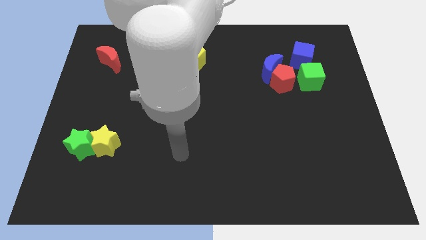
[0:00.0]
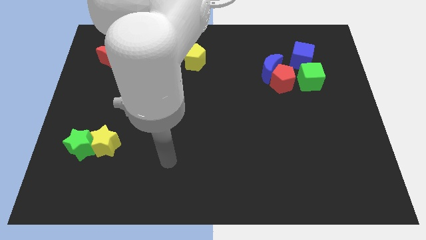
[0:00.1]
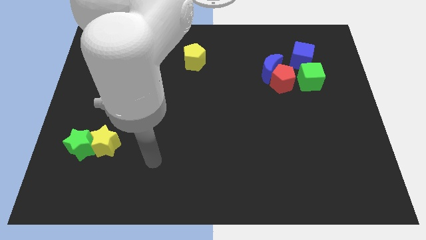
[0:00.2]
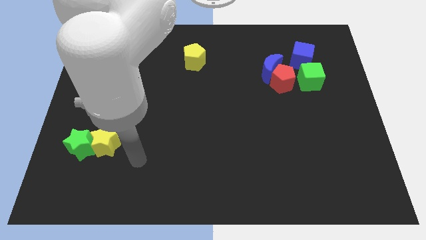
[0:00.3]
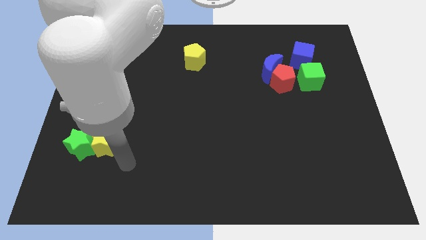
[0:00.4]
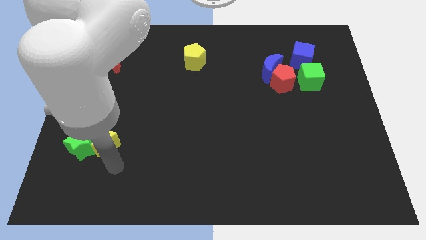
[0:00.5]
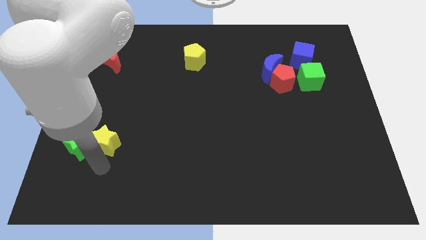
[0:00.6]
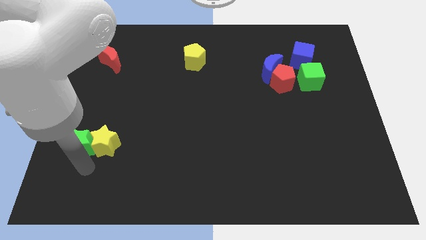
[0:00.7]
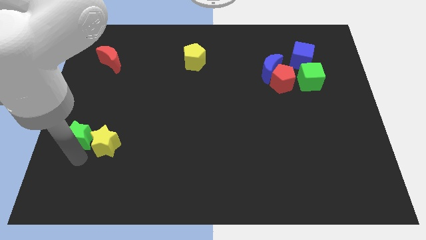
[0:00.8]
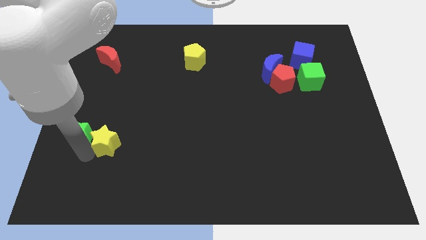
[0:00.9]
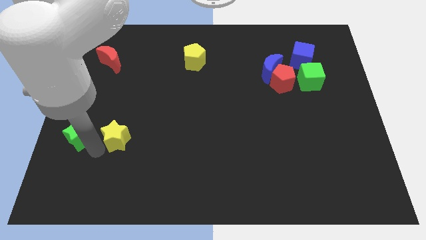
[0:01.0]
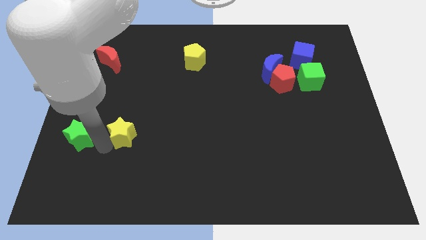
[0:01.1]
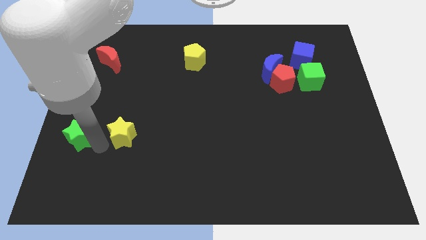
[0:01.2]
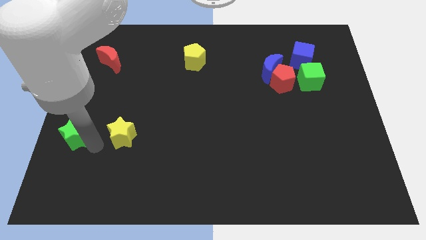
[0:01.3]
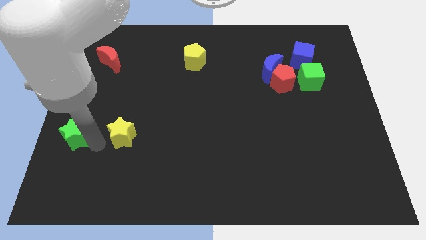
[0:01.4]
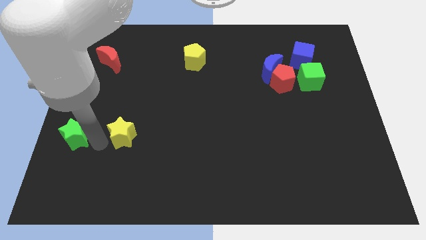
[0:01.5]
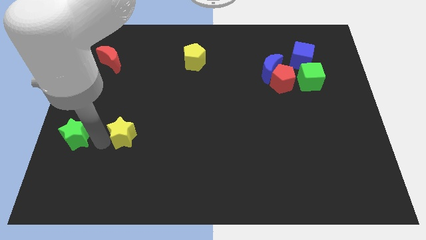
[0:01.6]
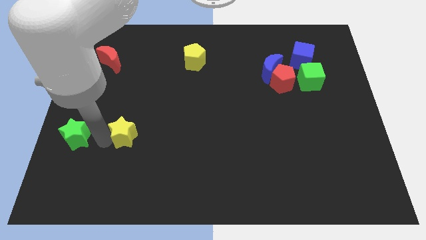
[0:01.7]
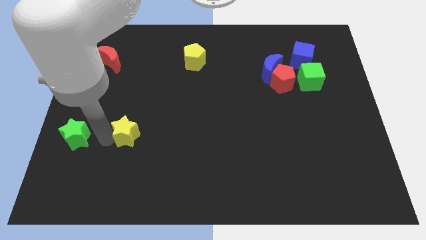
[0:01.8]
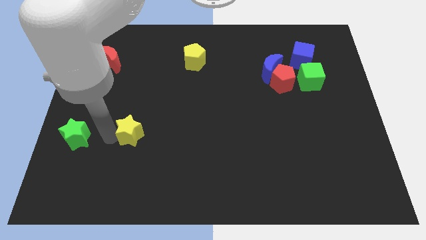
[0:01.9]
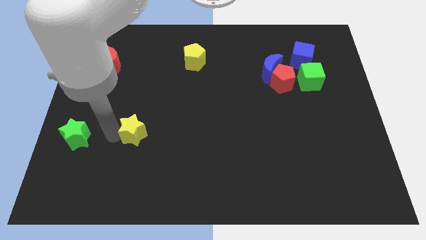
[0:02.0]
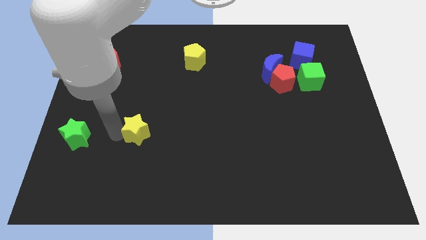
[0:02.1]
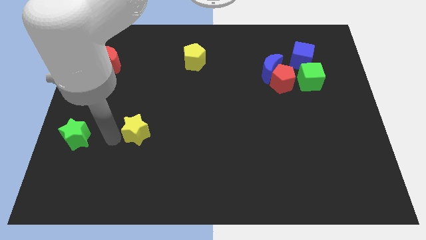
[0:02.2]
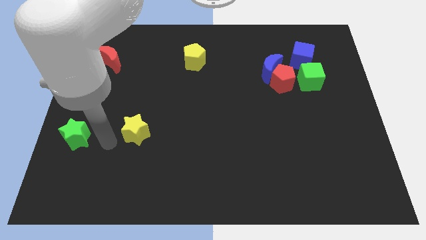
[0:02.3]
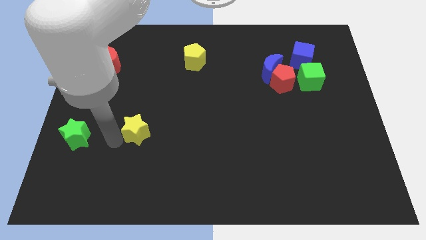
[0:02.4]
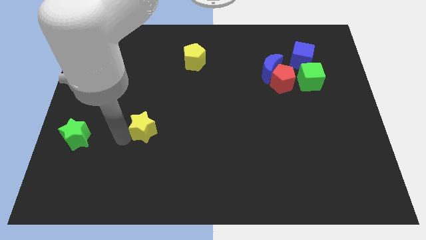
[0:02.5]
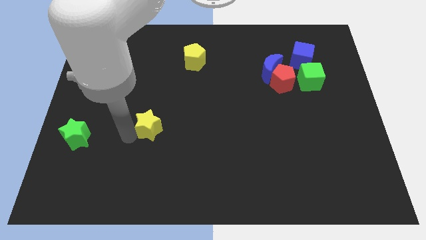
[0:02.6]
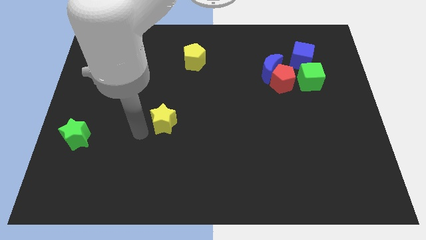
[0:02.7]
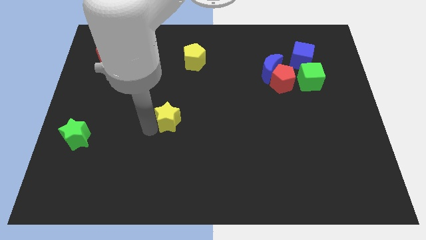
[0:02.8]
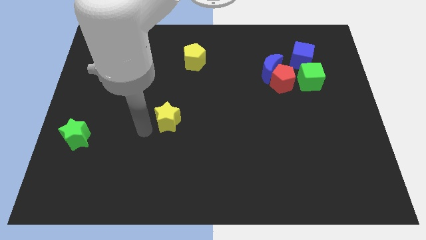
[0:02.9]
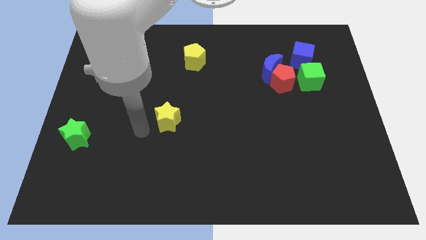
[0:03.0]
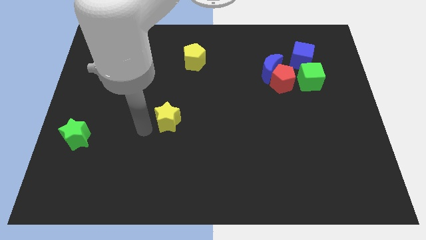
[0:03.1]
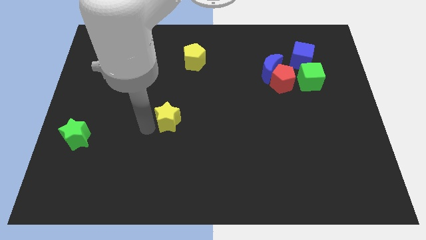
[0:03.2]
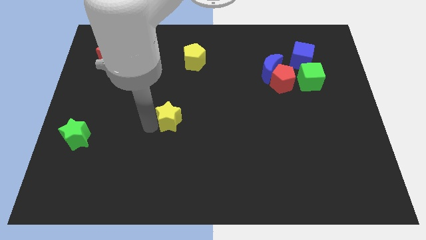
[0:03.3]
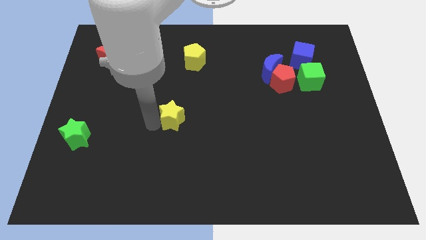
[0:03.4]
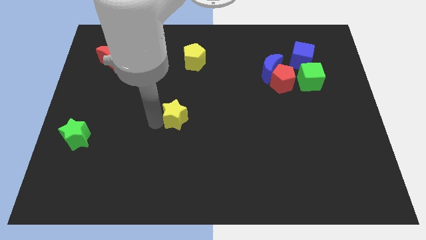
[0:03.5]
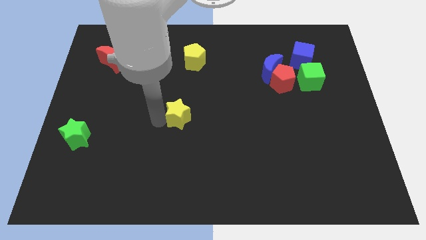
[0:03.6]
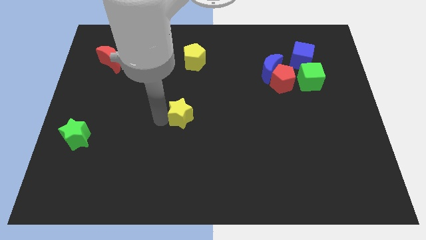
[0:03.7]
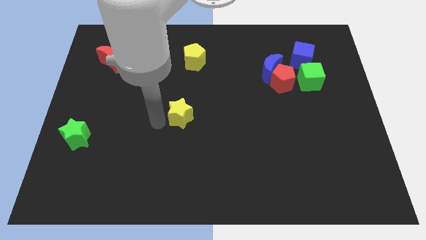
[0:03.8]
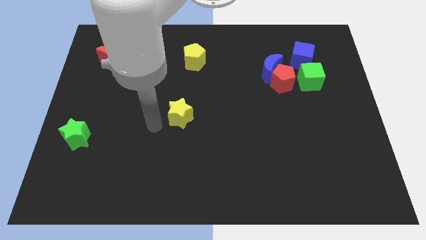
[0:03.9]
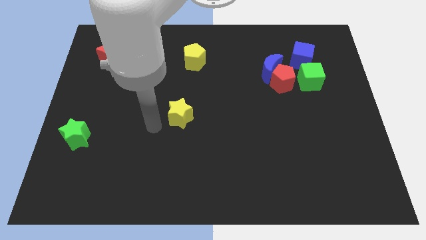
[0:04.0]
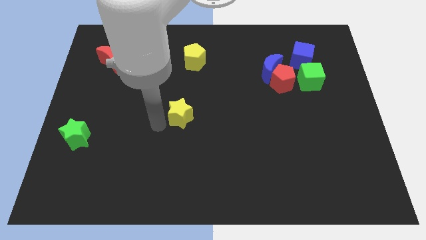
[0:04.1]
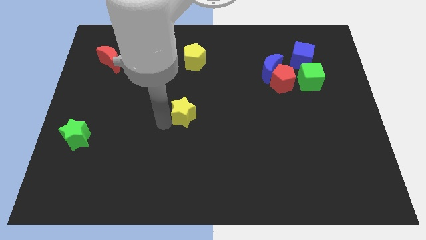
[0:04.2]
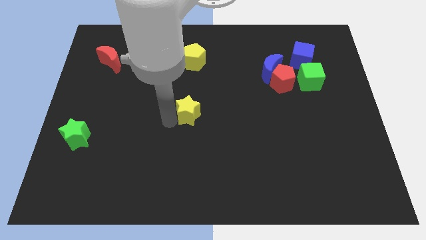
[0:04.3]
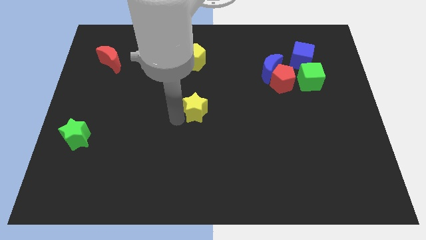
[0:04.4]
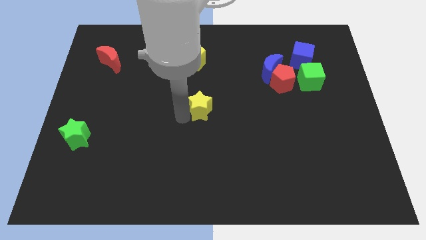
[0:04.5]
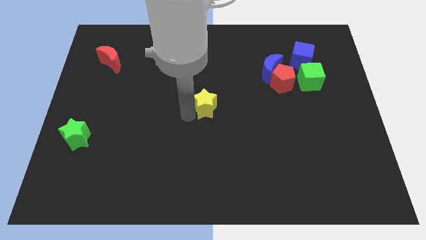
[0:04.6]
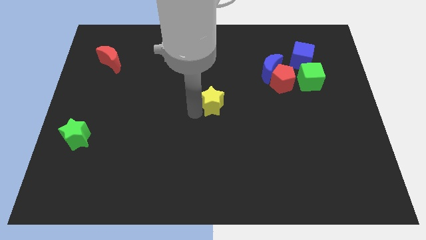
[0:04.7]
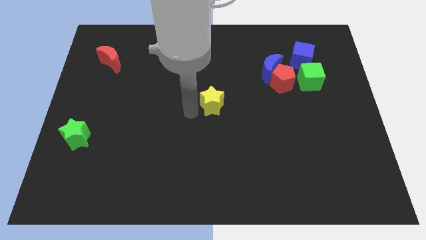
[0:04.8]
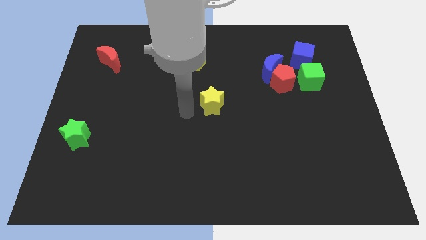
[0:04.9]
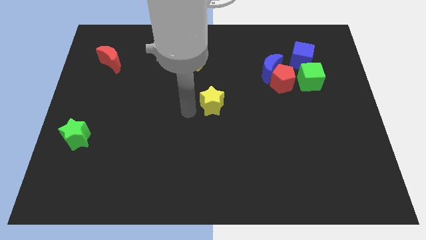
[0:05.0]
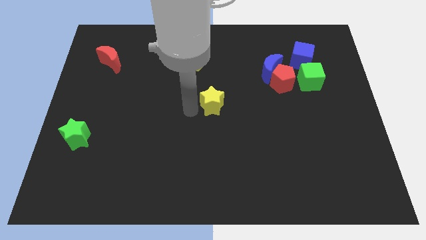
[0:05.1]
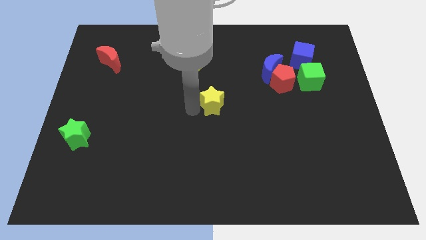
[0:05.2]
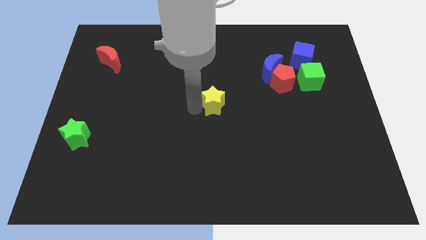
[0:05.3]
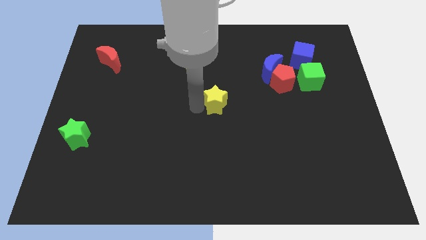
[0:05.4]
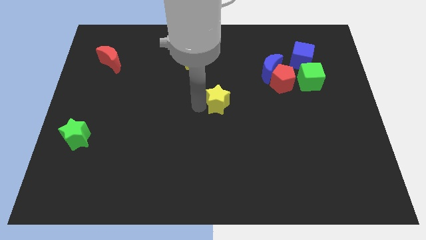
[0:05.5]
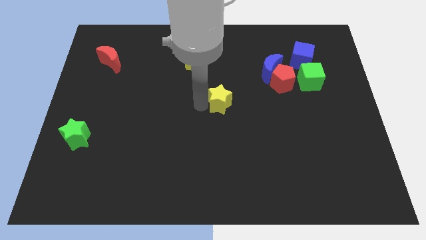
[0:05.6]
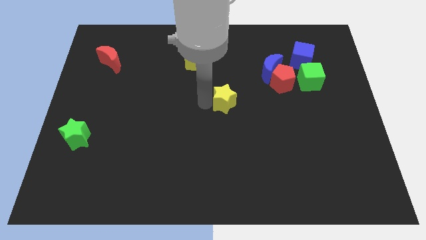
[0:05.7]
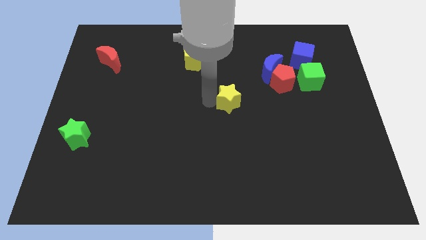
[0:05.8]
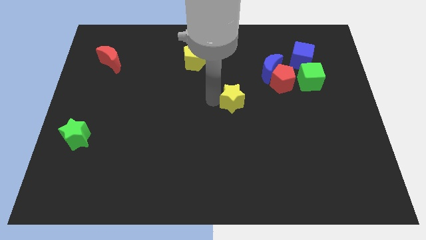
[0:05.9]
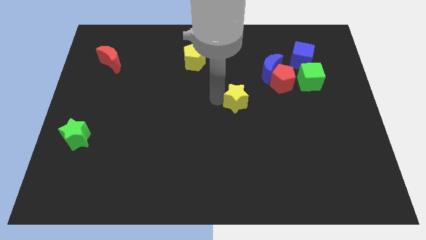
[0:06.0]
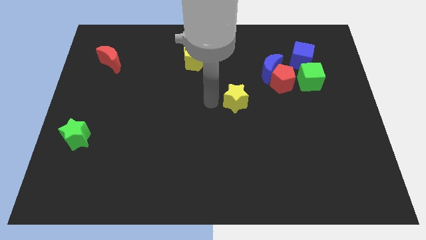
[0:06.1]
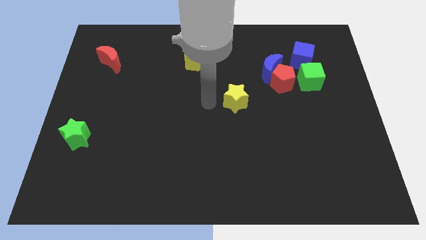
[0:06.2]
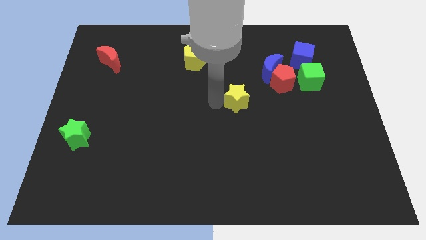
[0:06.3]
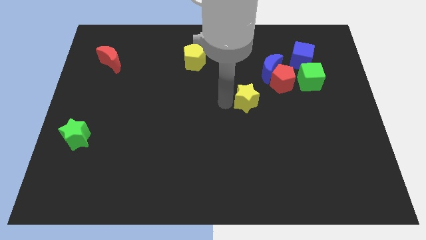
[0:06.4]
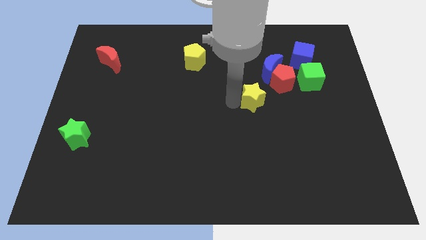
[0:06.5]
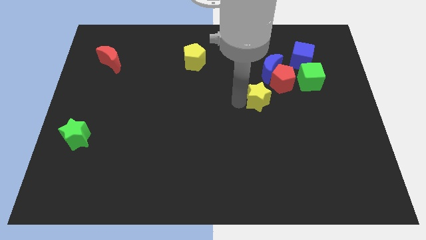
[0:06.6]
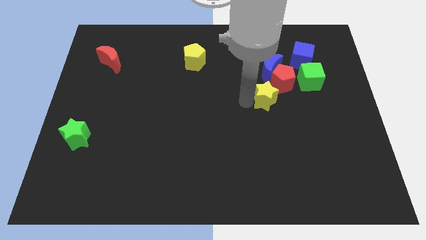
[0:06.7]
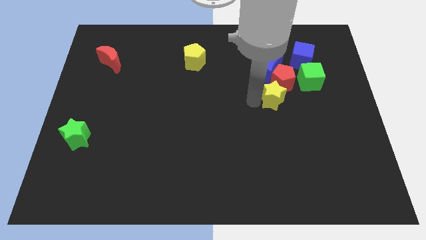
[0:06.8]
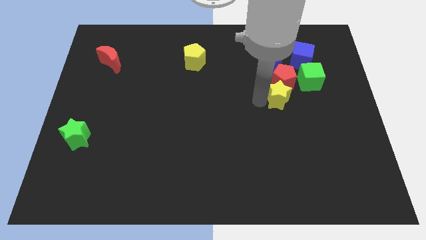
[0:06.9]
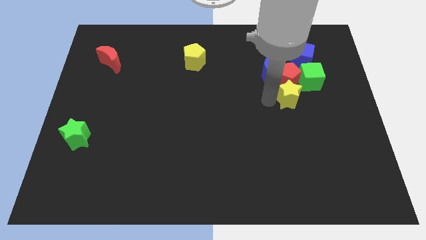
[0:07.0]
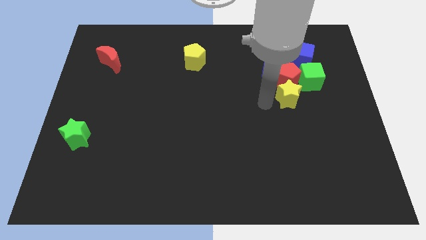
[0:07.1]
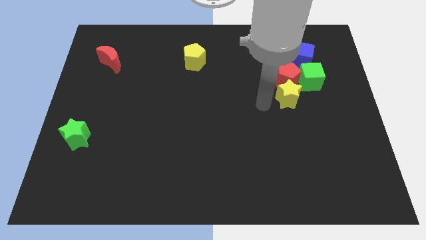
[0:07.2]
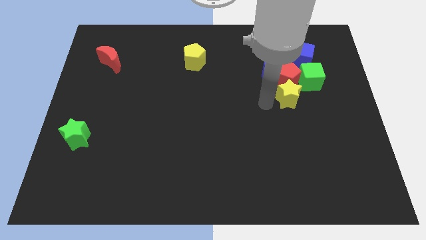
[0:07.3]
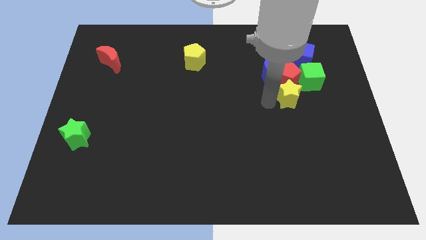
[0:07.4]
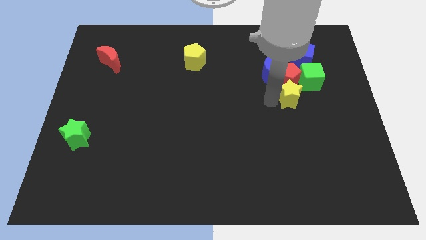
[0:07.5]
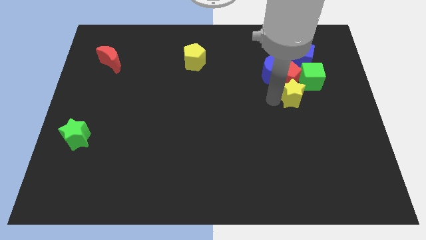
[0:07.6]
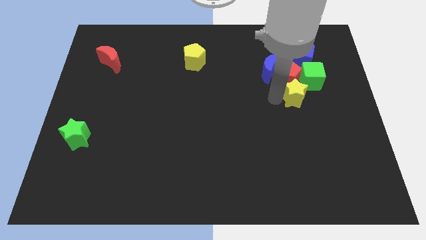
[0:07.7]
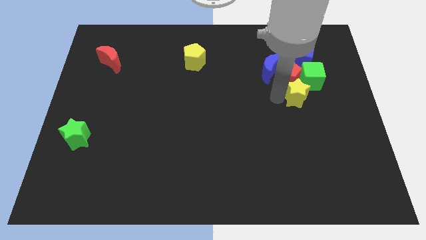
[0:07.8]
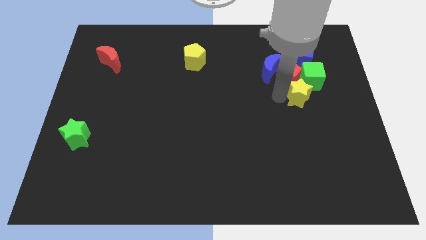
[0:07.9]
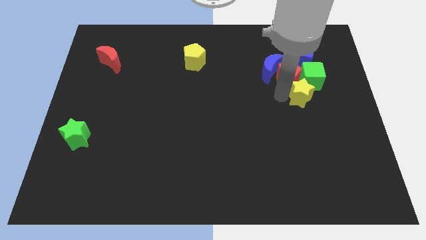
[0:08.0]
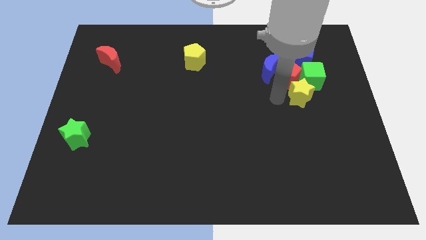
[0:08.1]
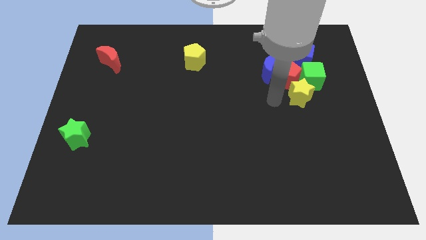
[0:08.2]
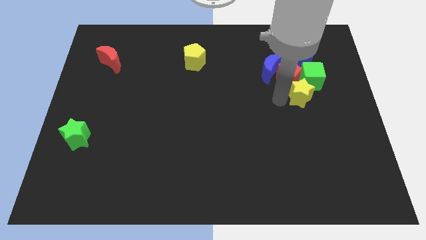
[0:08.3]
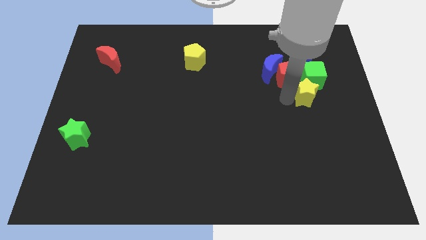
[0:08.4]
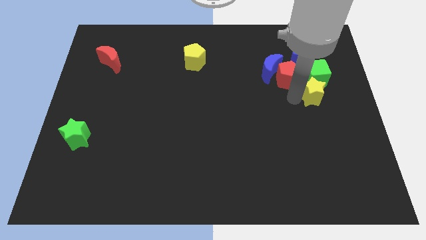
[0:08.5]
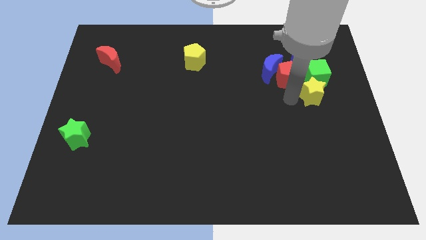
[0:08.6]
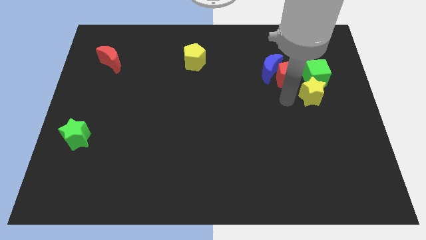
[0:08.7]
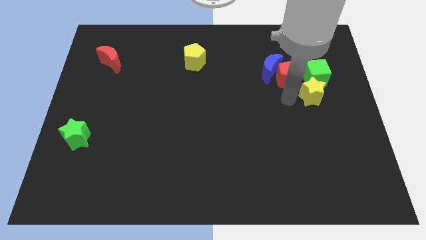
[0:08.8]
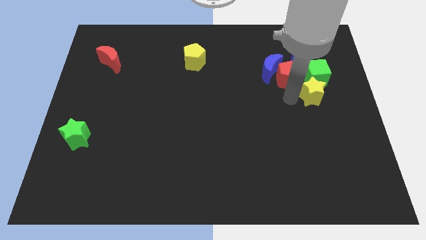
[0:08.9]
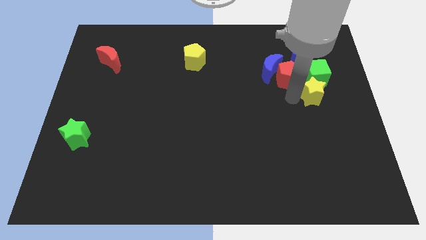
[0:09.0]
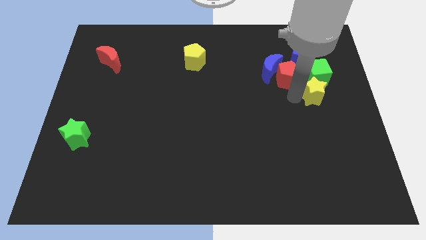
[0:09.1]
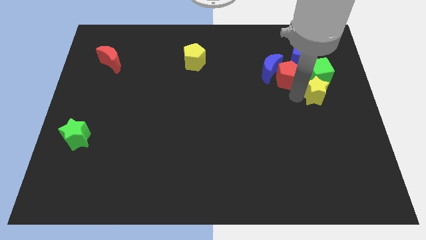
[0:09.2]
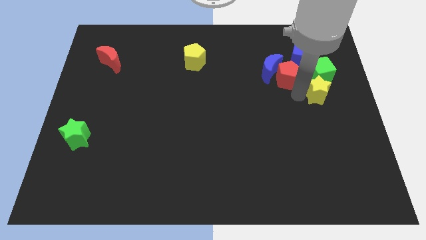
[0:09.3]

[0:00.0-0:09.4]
push the yellow star right of the red pentagon
